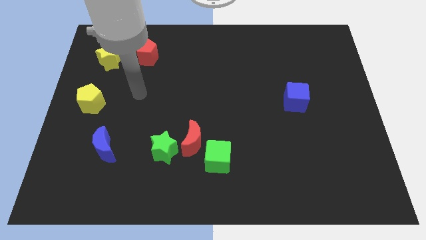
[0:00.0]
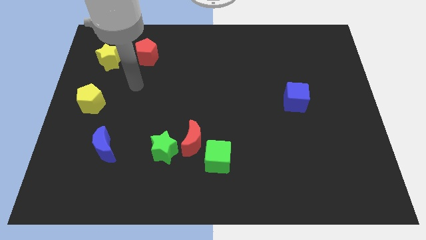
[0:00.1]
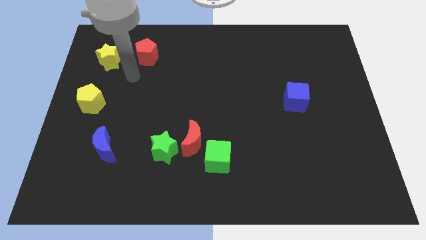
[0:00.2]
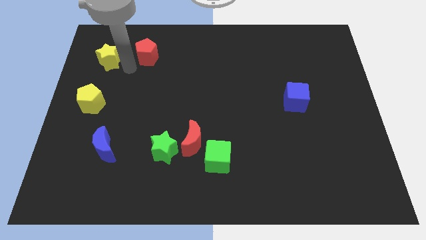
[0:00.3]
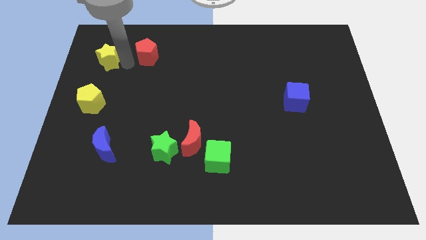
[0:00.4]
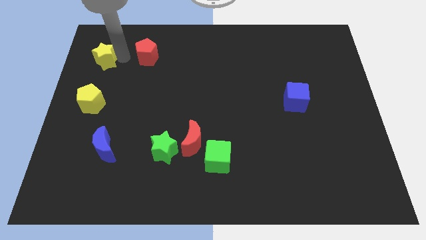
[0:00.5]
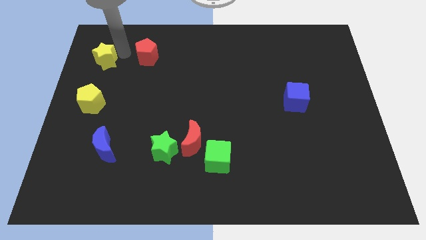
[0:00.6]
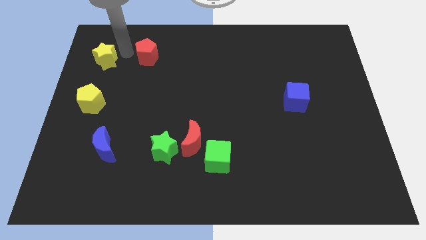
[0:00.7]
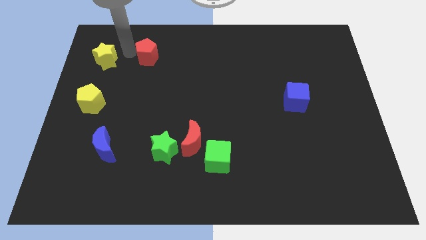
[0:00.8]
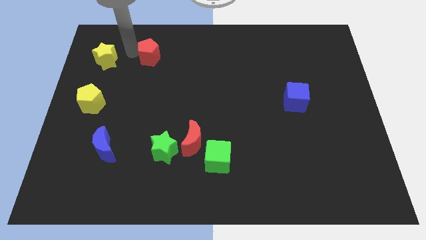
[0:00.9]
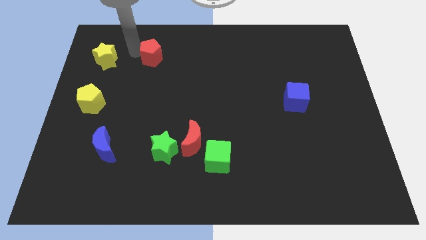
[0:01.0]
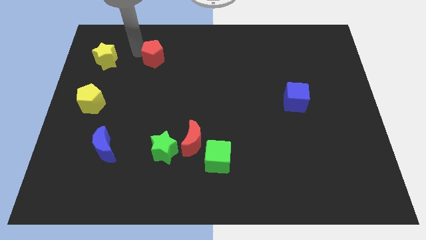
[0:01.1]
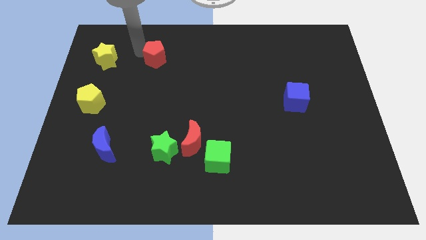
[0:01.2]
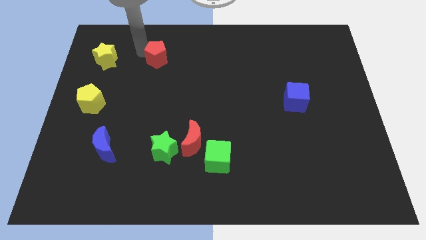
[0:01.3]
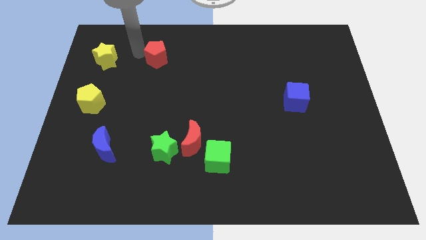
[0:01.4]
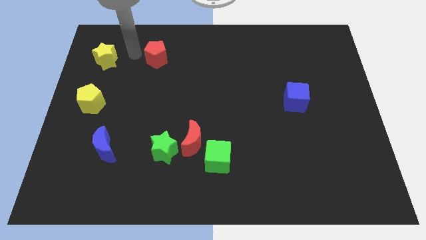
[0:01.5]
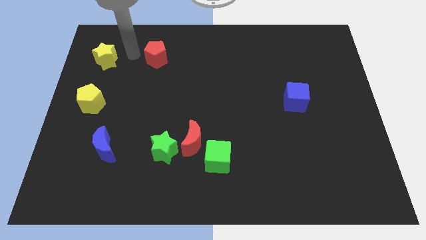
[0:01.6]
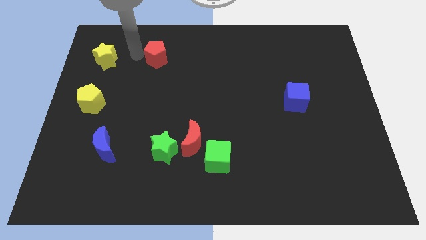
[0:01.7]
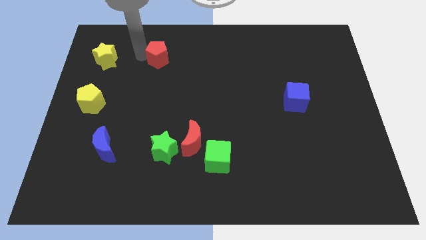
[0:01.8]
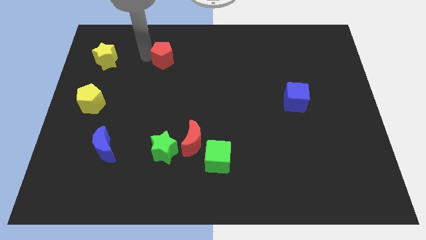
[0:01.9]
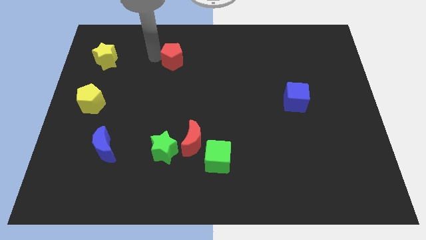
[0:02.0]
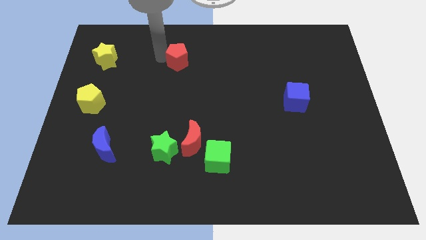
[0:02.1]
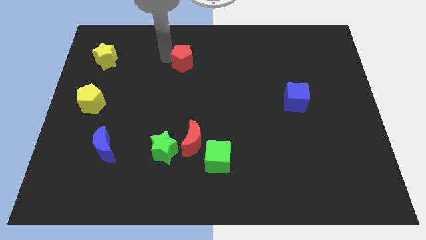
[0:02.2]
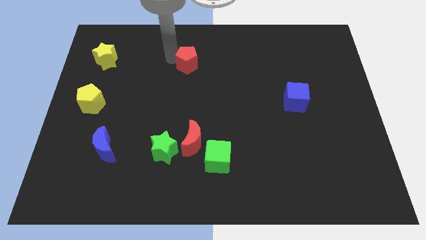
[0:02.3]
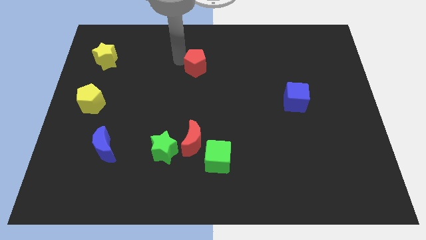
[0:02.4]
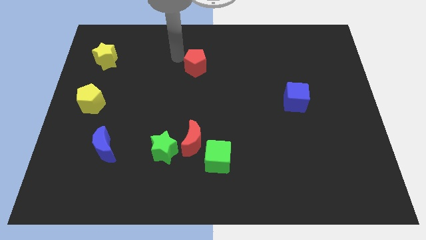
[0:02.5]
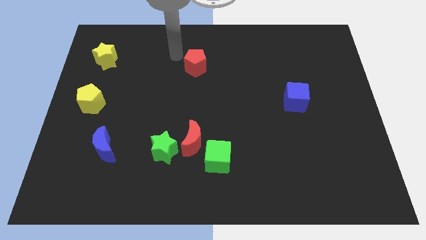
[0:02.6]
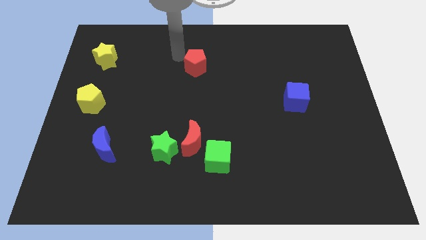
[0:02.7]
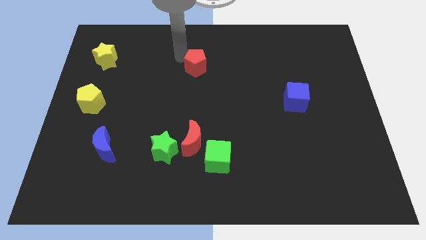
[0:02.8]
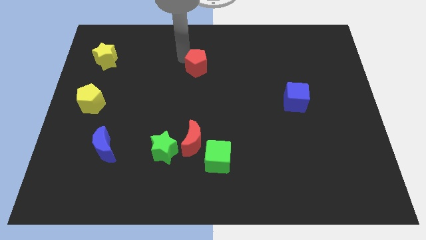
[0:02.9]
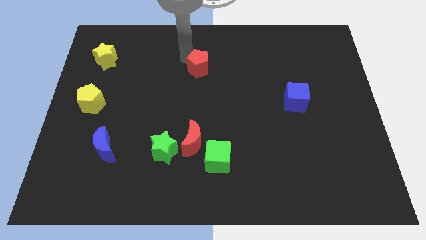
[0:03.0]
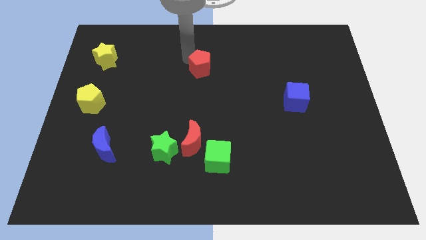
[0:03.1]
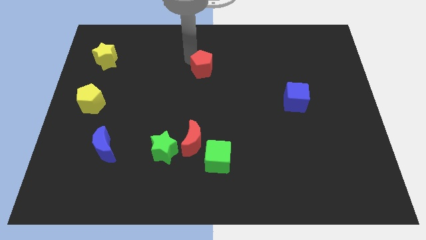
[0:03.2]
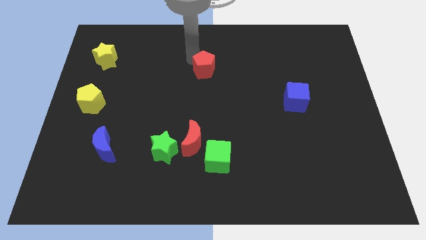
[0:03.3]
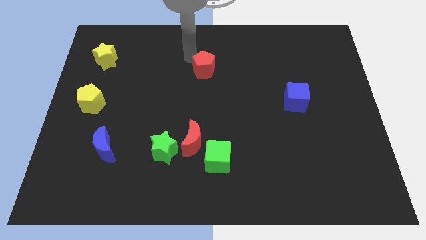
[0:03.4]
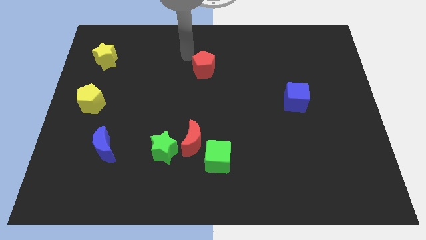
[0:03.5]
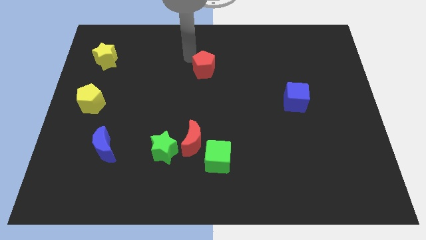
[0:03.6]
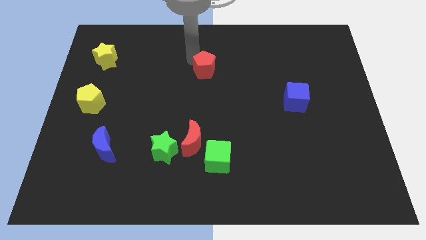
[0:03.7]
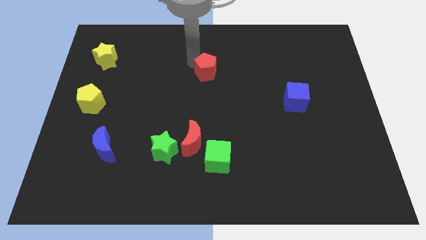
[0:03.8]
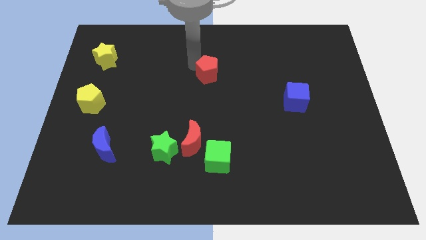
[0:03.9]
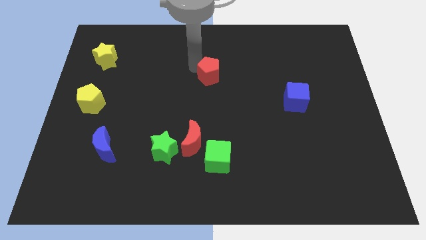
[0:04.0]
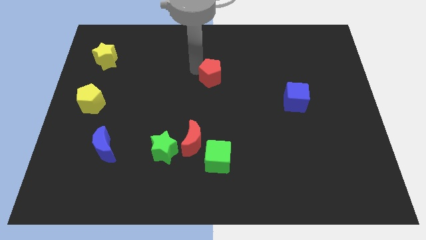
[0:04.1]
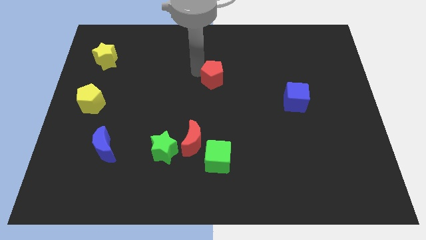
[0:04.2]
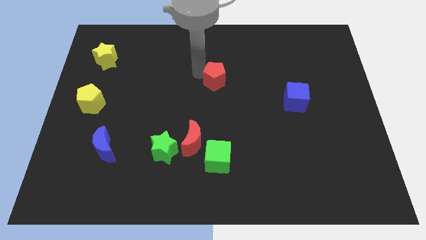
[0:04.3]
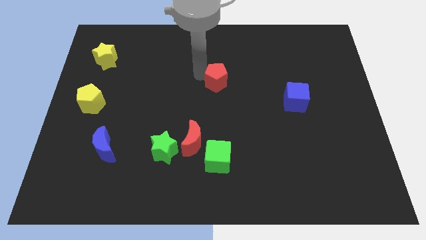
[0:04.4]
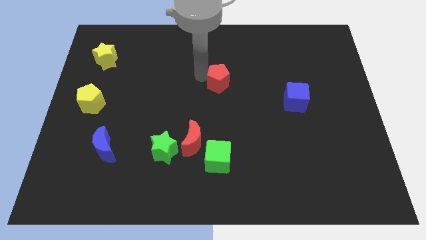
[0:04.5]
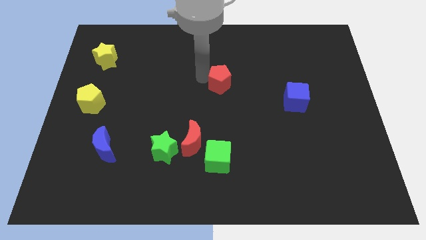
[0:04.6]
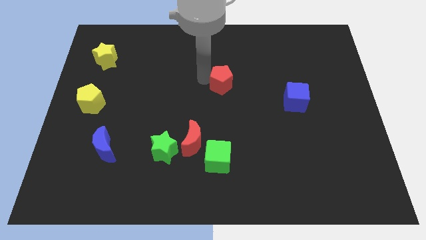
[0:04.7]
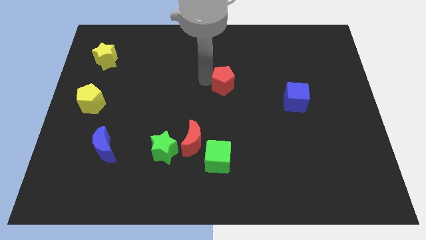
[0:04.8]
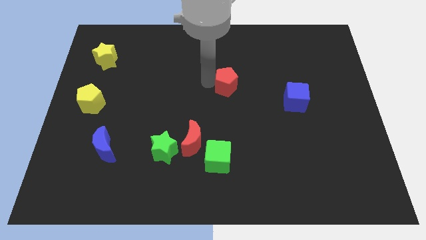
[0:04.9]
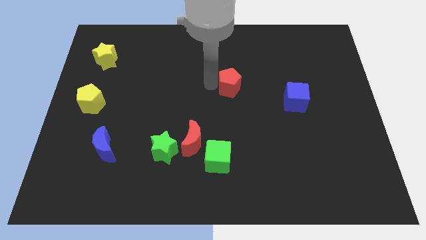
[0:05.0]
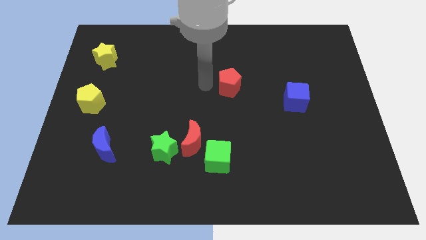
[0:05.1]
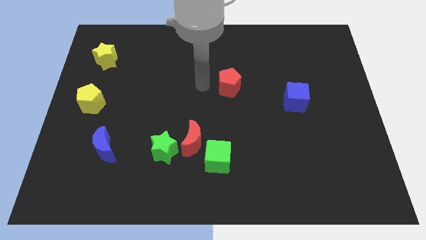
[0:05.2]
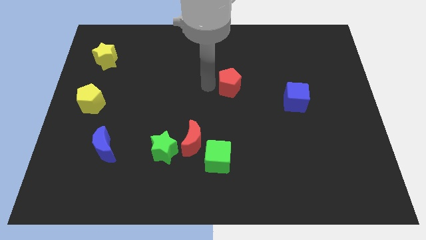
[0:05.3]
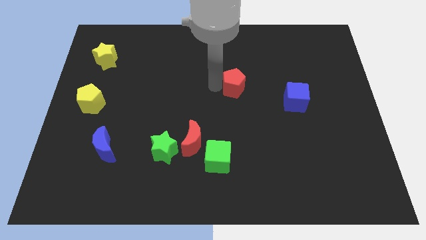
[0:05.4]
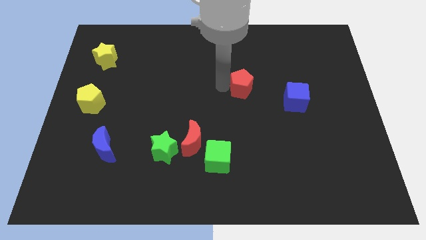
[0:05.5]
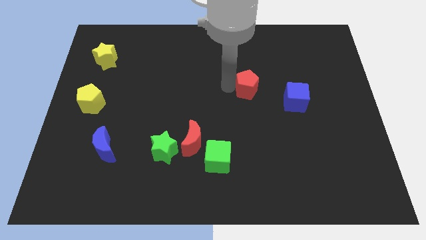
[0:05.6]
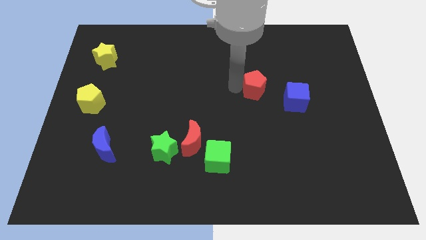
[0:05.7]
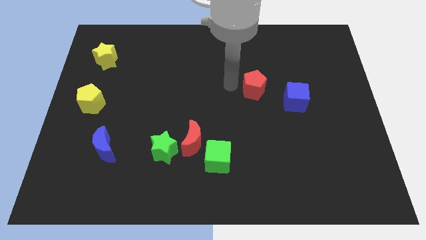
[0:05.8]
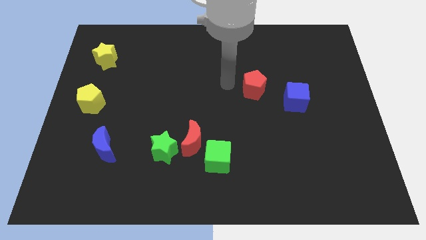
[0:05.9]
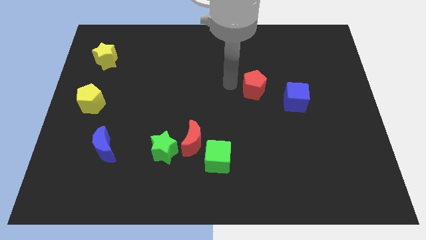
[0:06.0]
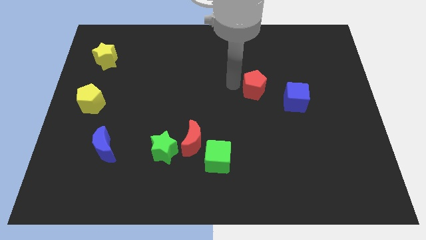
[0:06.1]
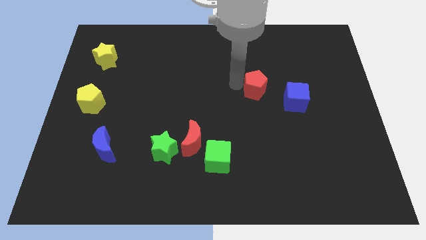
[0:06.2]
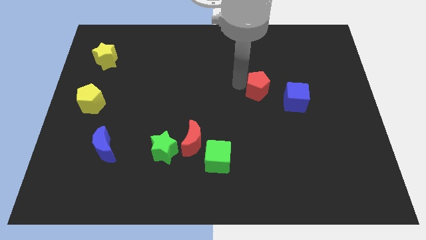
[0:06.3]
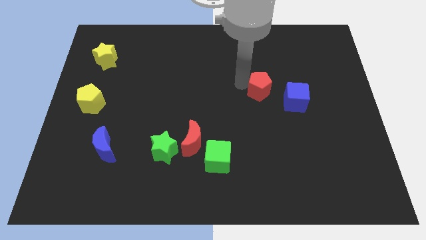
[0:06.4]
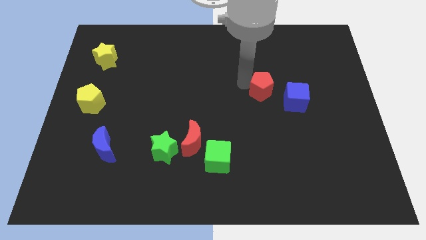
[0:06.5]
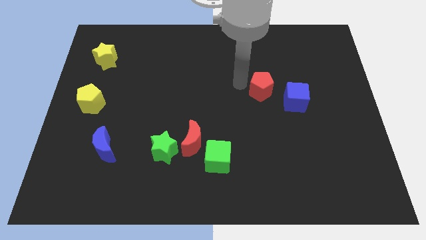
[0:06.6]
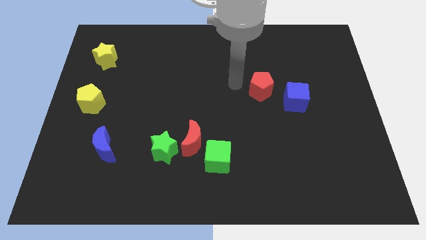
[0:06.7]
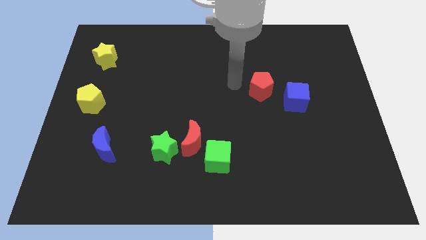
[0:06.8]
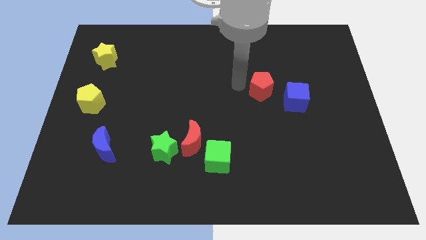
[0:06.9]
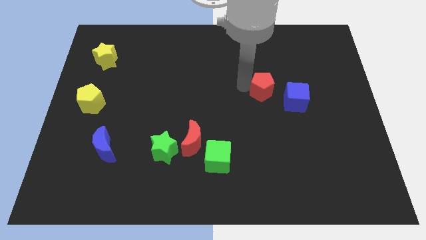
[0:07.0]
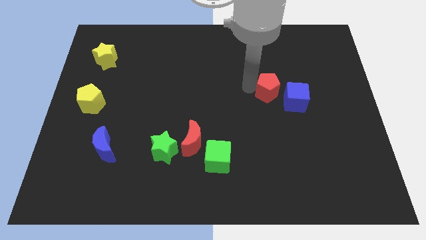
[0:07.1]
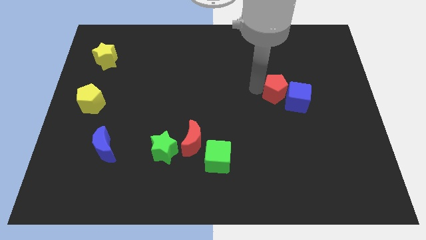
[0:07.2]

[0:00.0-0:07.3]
put the red pentagon towards the blue cube
